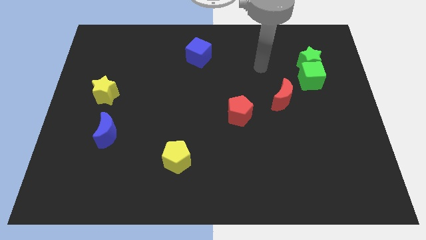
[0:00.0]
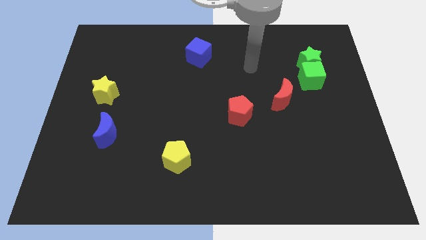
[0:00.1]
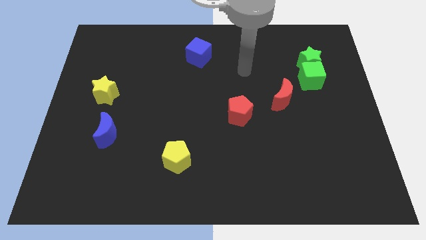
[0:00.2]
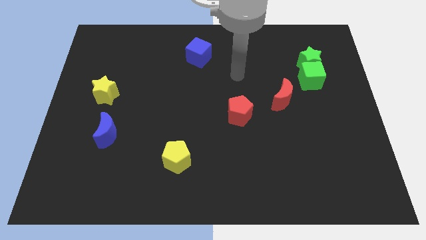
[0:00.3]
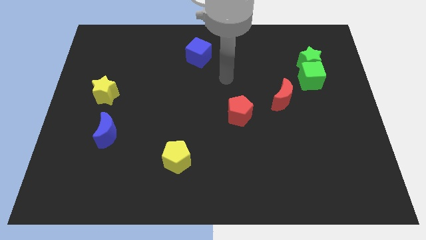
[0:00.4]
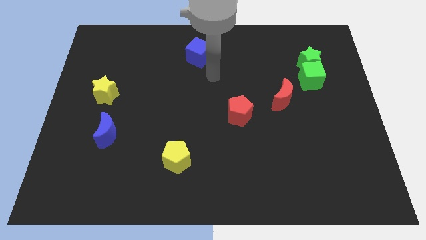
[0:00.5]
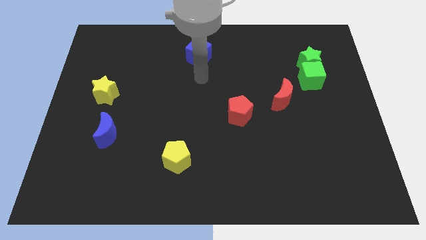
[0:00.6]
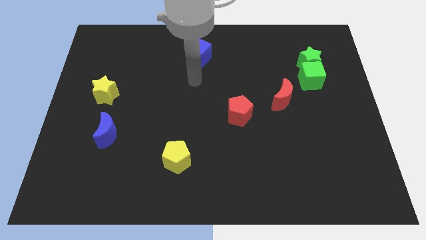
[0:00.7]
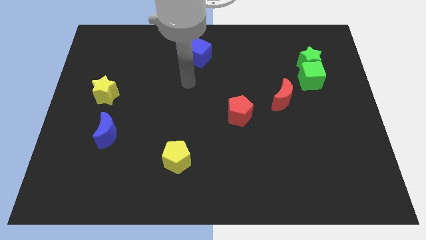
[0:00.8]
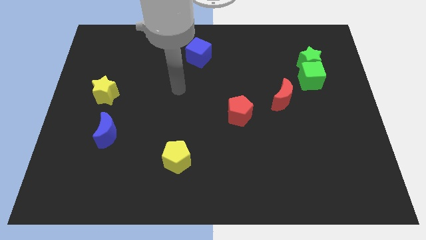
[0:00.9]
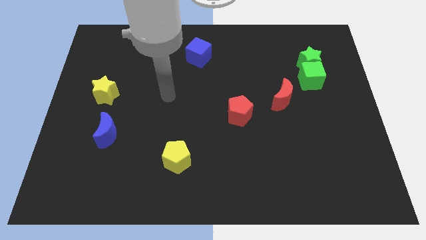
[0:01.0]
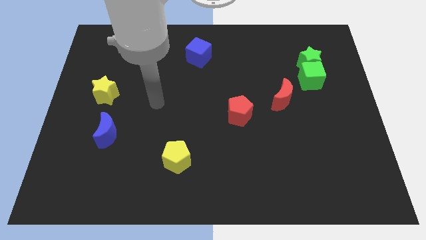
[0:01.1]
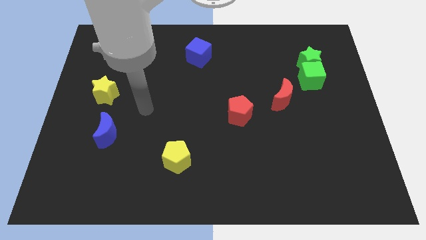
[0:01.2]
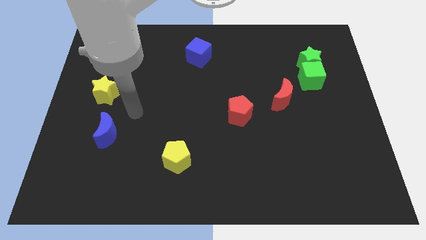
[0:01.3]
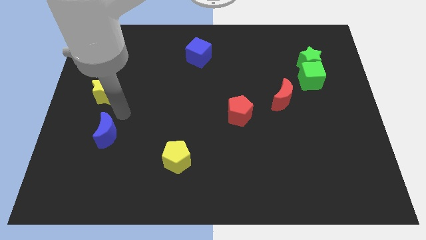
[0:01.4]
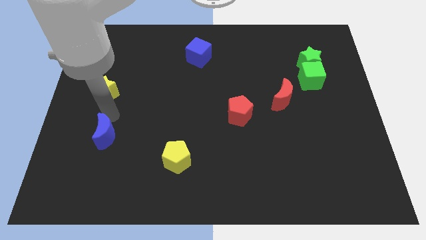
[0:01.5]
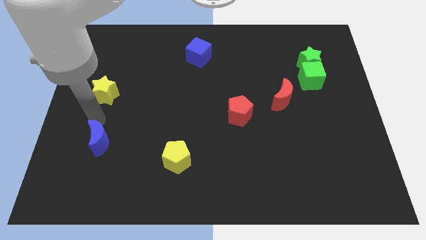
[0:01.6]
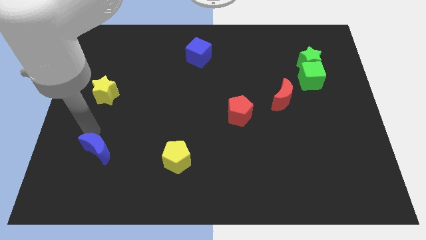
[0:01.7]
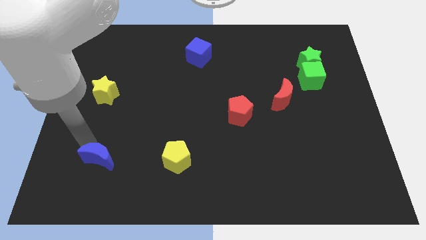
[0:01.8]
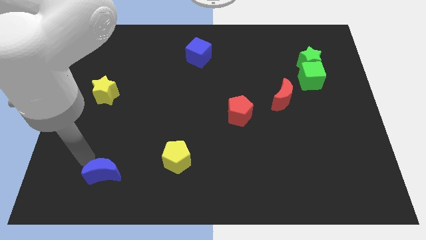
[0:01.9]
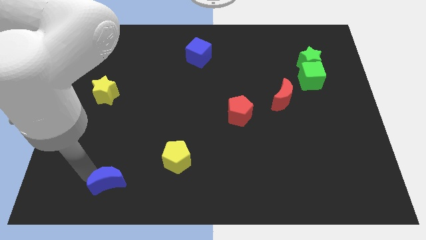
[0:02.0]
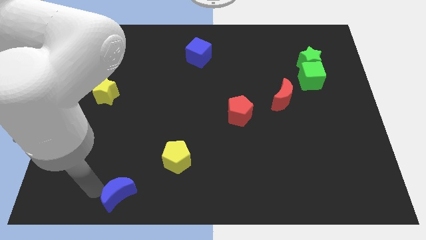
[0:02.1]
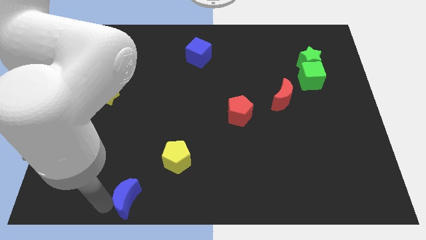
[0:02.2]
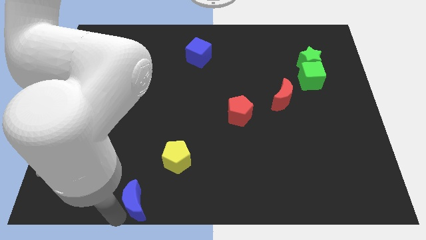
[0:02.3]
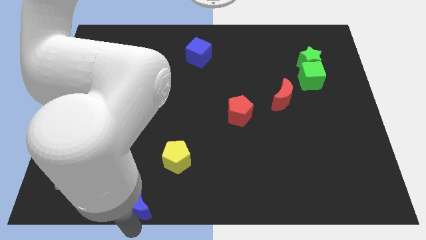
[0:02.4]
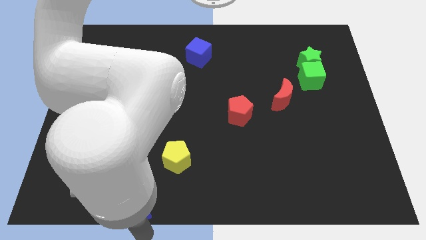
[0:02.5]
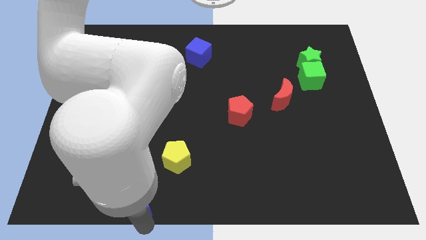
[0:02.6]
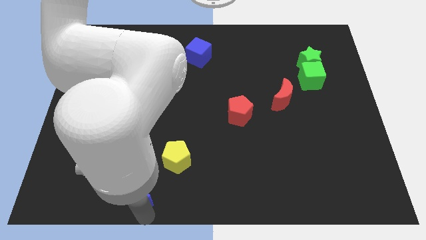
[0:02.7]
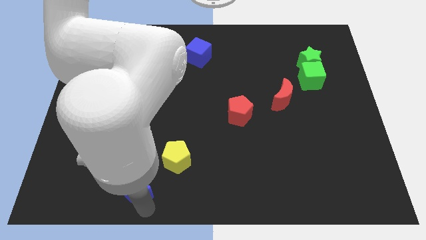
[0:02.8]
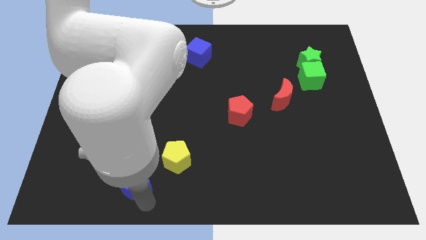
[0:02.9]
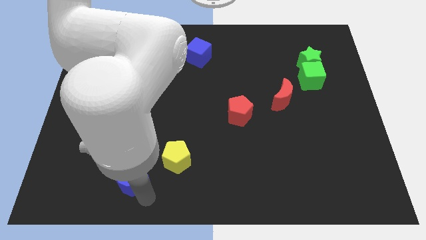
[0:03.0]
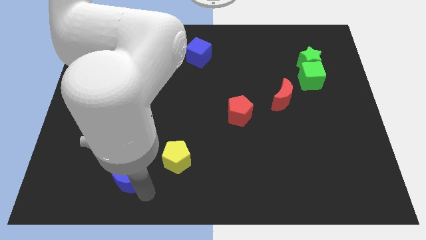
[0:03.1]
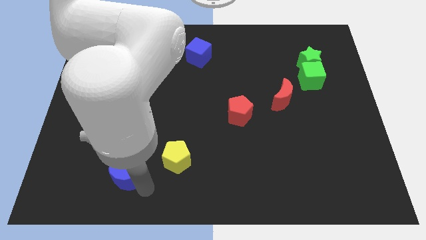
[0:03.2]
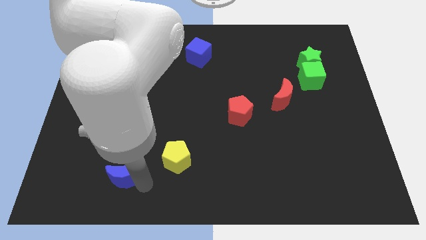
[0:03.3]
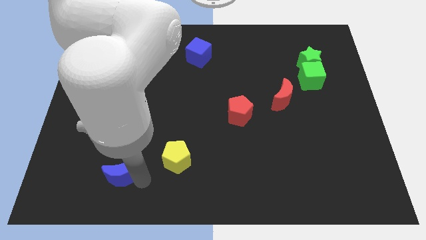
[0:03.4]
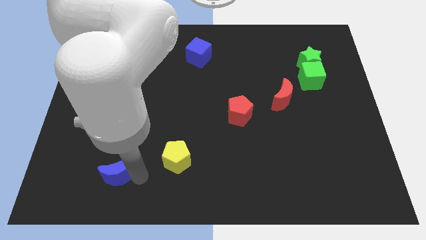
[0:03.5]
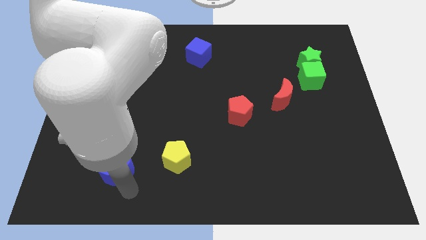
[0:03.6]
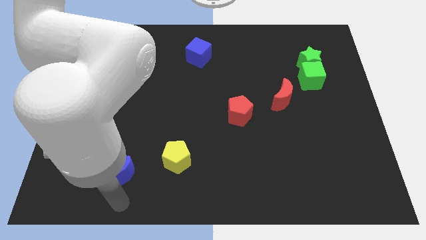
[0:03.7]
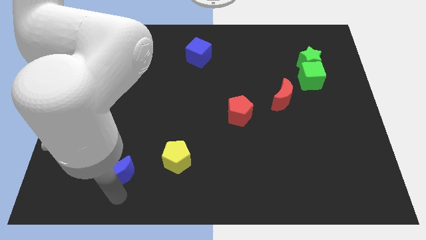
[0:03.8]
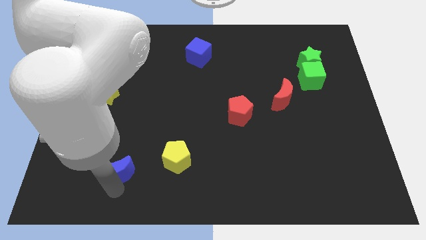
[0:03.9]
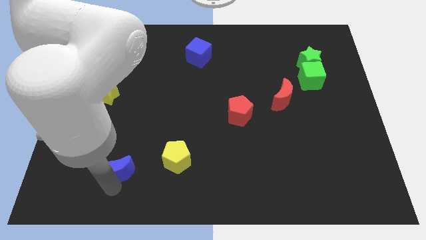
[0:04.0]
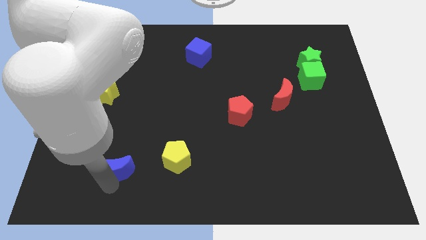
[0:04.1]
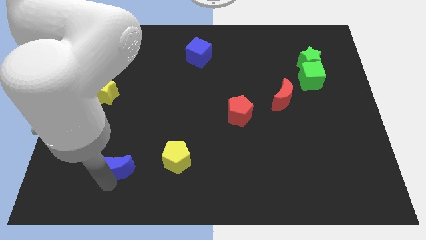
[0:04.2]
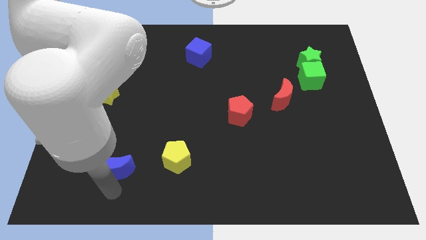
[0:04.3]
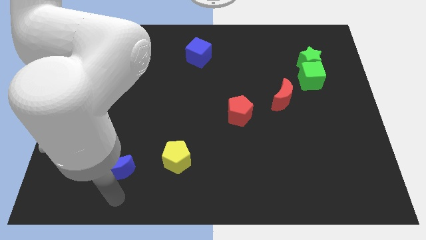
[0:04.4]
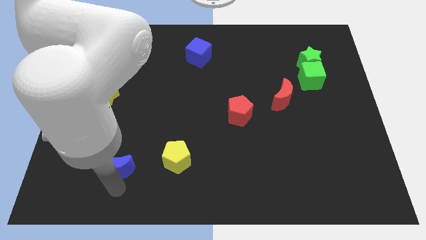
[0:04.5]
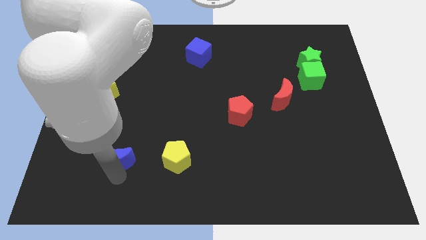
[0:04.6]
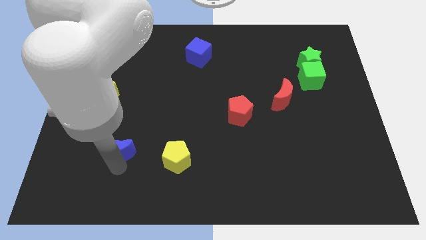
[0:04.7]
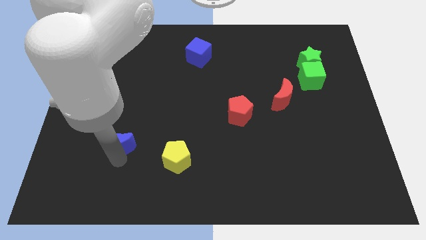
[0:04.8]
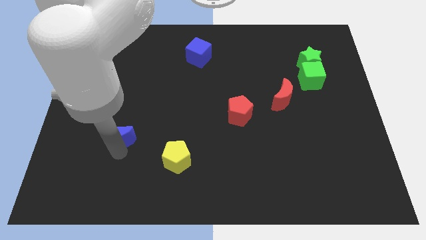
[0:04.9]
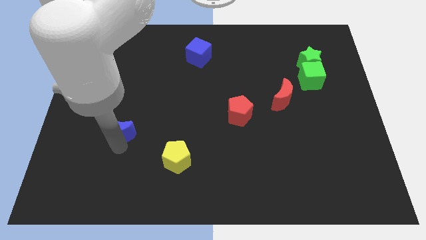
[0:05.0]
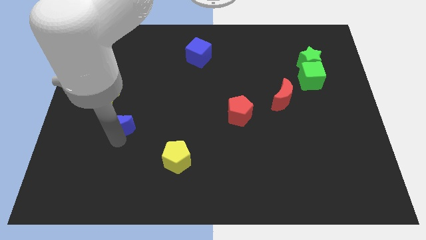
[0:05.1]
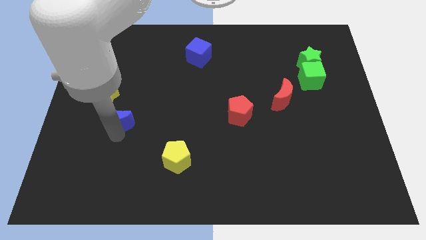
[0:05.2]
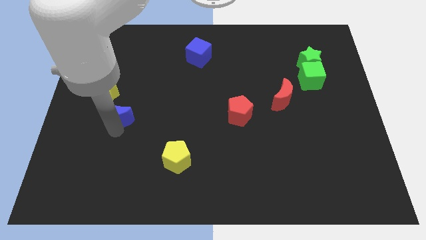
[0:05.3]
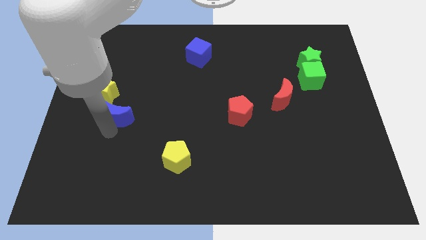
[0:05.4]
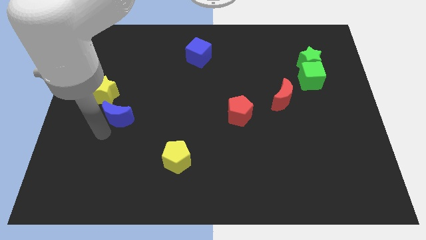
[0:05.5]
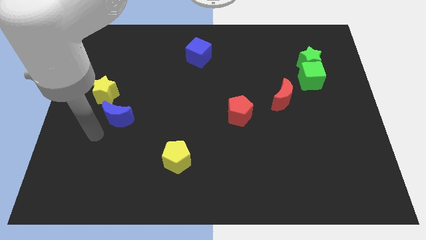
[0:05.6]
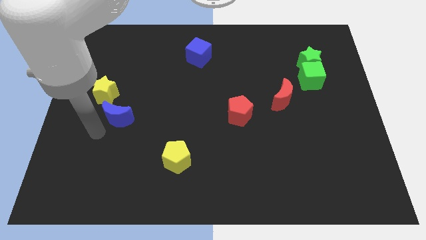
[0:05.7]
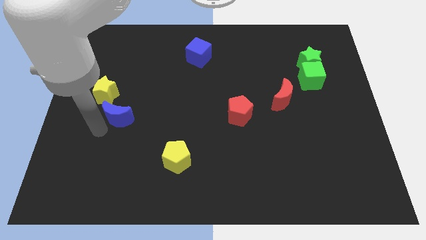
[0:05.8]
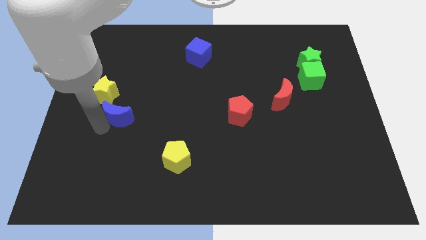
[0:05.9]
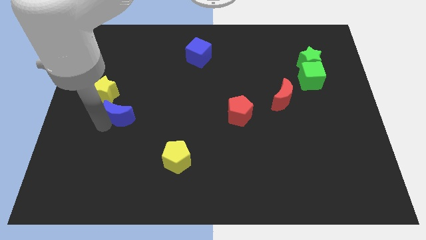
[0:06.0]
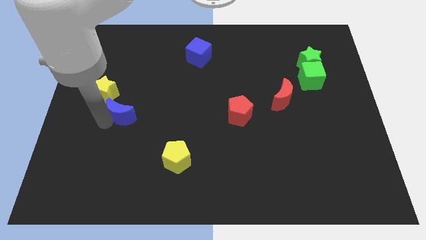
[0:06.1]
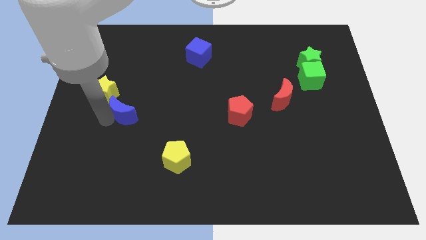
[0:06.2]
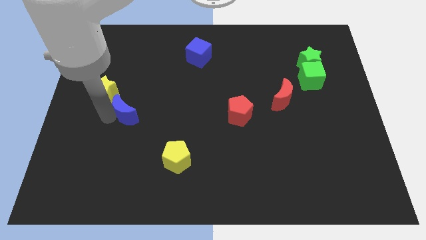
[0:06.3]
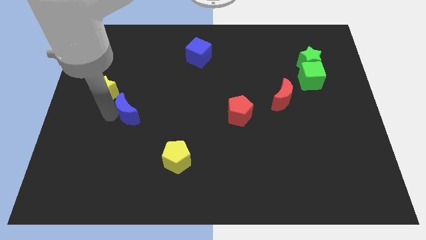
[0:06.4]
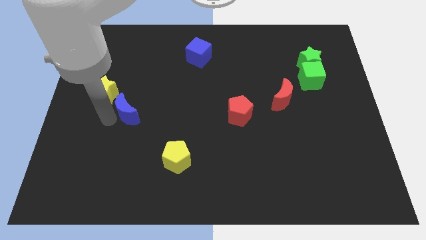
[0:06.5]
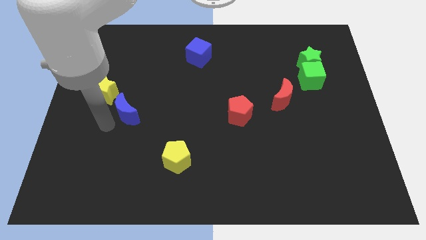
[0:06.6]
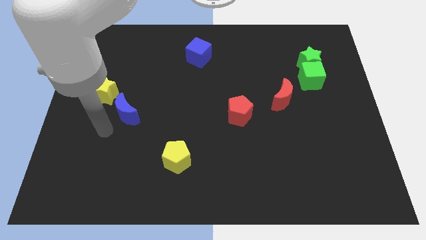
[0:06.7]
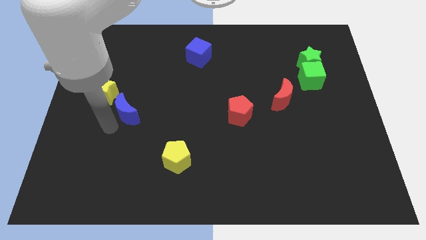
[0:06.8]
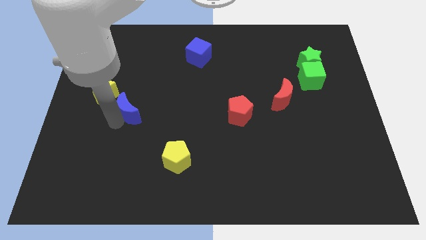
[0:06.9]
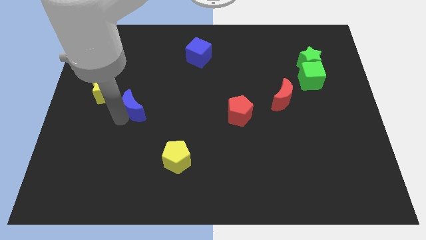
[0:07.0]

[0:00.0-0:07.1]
push the blue moon diagonally upwards and right somewhat

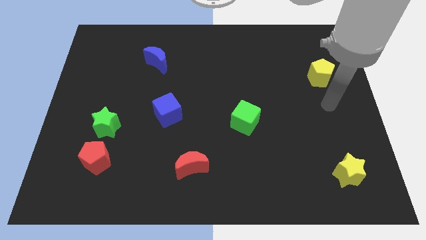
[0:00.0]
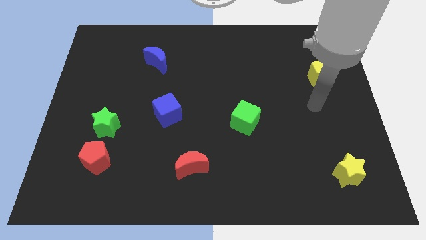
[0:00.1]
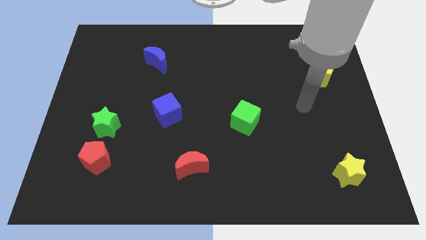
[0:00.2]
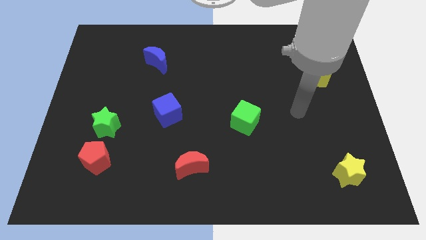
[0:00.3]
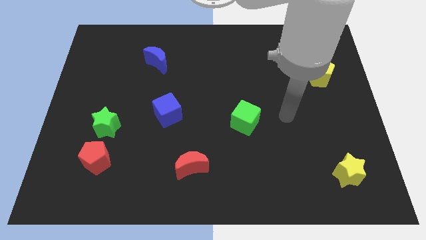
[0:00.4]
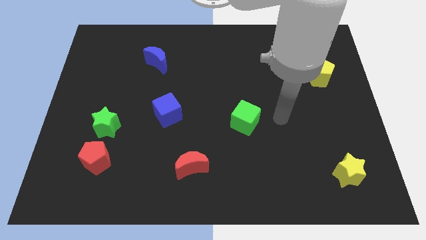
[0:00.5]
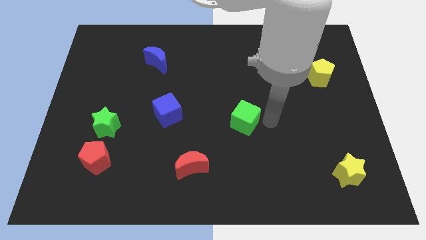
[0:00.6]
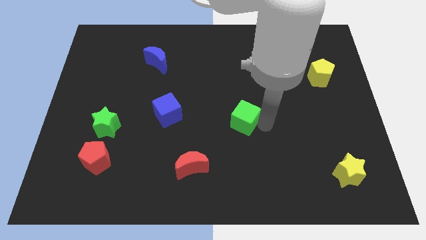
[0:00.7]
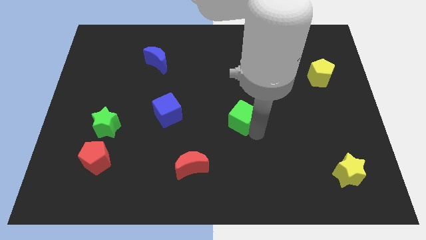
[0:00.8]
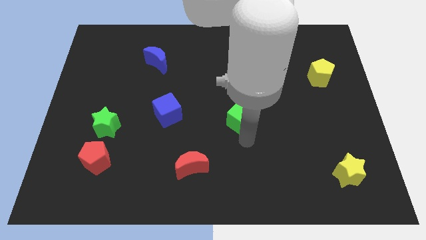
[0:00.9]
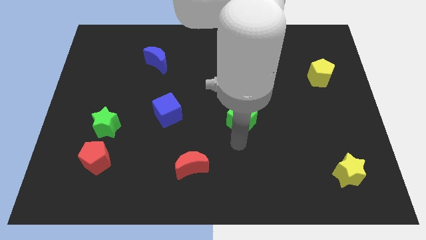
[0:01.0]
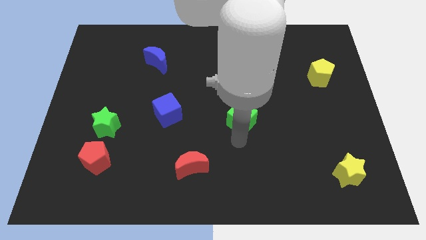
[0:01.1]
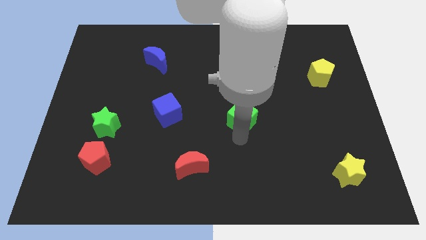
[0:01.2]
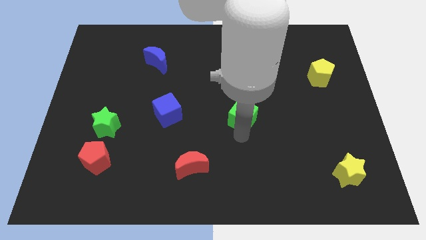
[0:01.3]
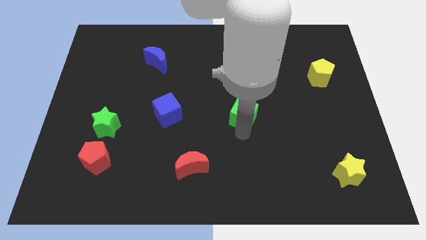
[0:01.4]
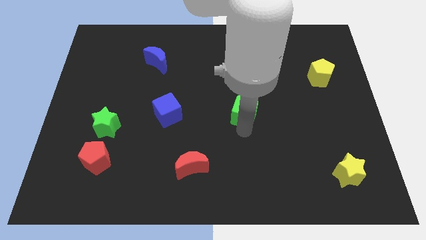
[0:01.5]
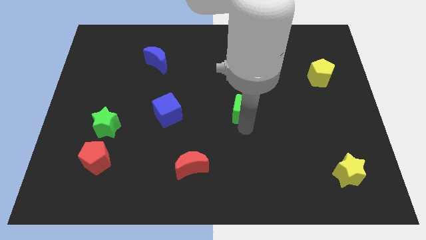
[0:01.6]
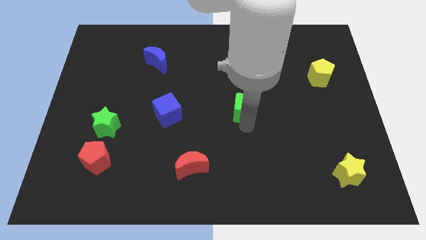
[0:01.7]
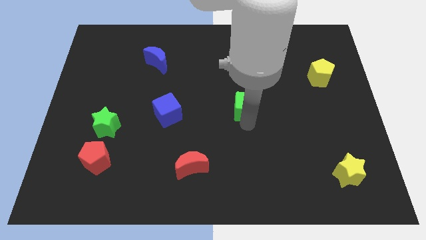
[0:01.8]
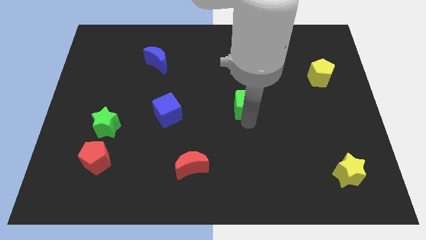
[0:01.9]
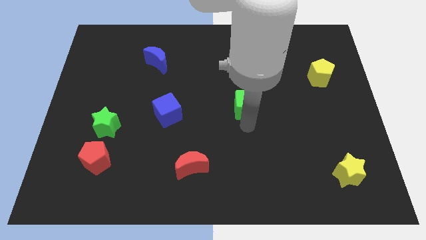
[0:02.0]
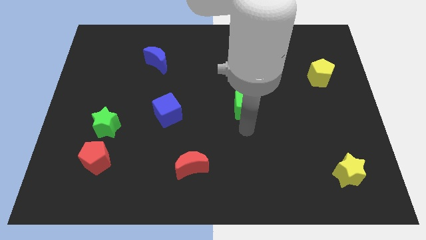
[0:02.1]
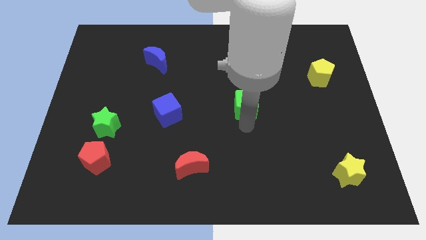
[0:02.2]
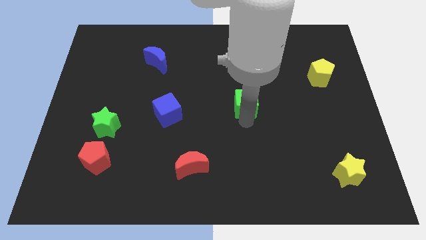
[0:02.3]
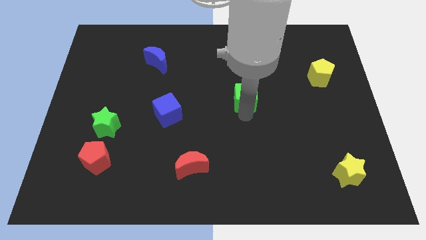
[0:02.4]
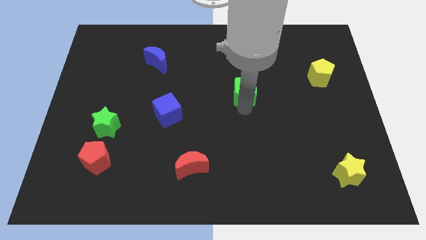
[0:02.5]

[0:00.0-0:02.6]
move the green cube up a little
